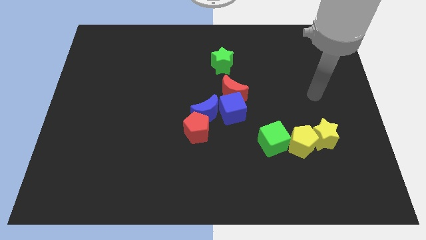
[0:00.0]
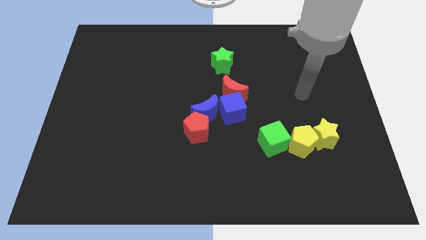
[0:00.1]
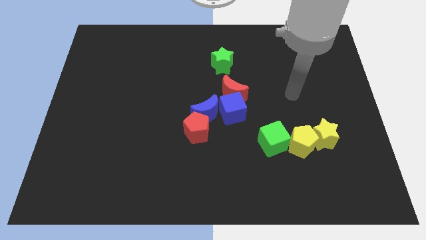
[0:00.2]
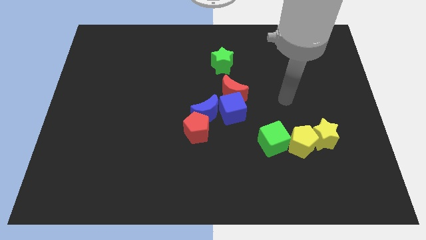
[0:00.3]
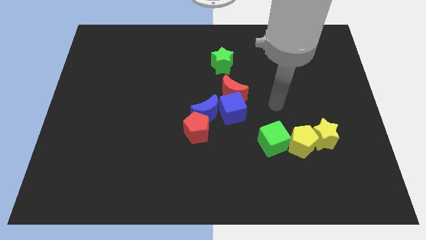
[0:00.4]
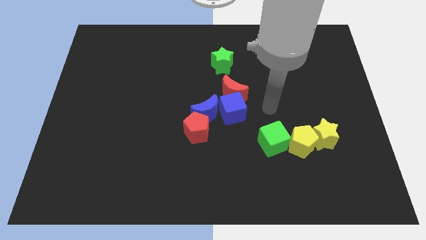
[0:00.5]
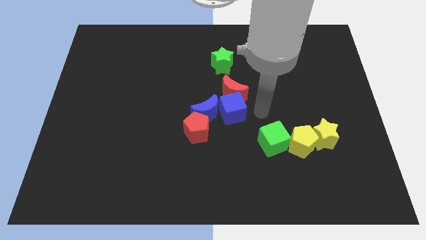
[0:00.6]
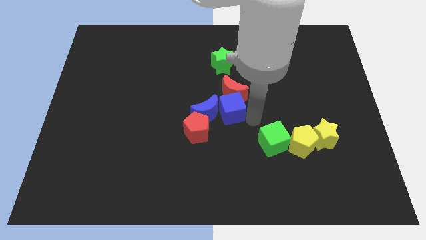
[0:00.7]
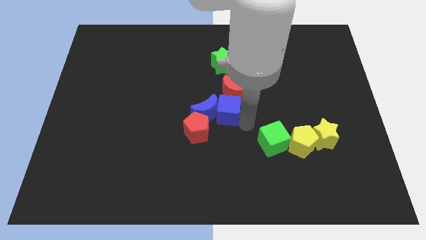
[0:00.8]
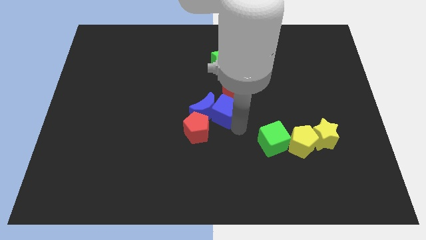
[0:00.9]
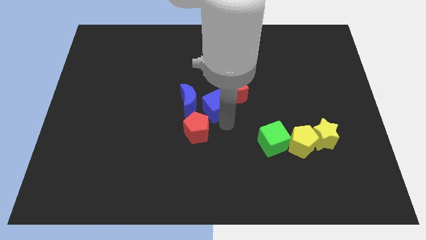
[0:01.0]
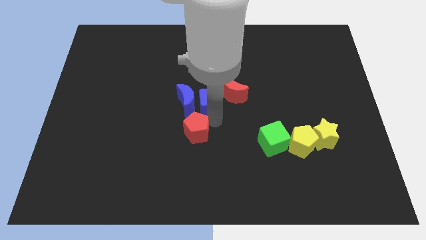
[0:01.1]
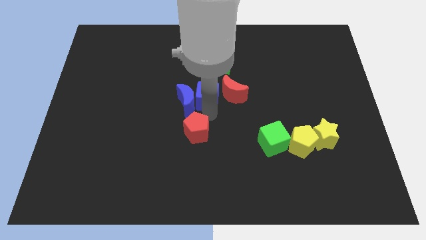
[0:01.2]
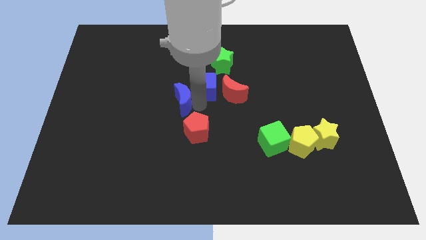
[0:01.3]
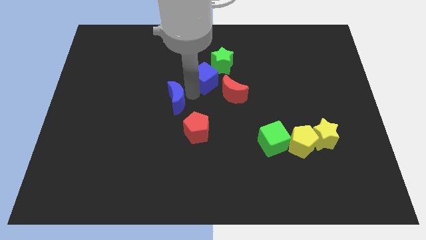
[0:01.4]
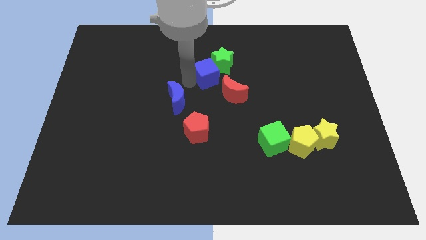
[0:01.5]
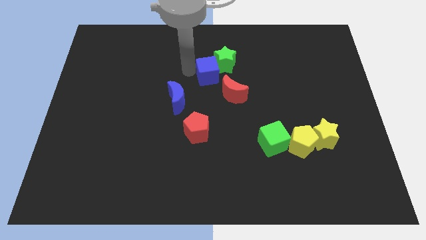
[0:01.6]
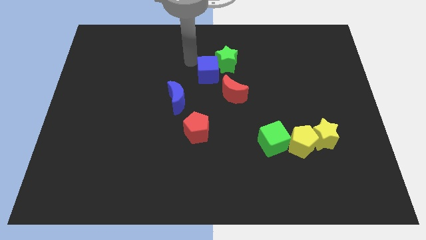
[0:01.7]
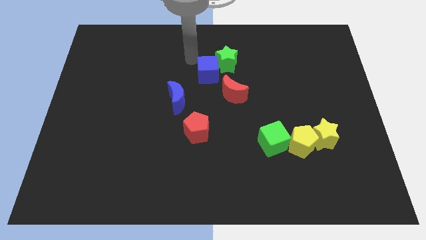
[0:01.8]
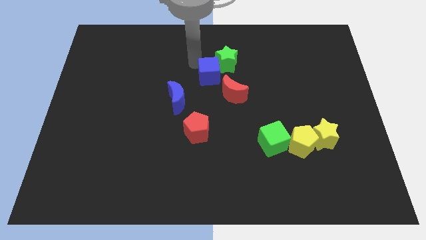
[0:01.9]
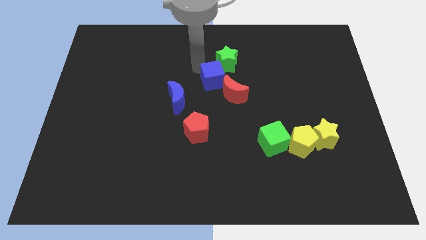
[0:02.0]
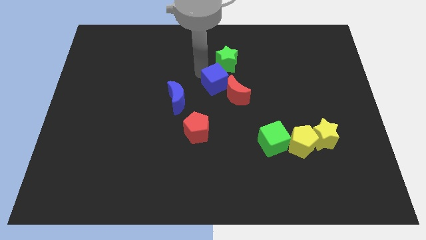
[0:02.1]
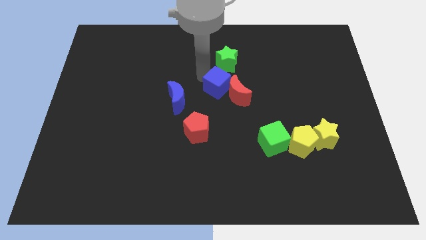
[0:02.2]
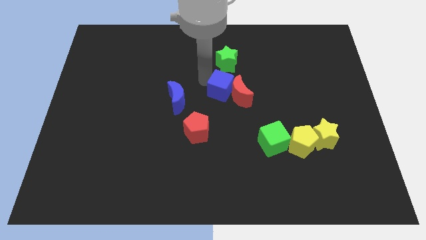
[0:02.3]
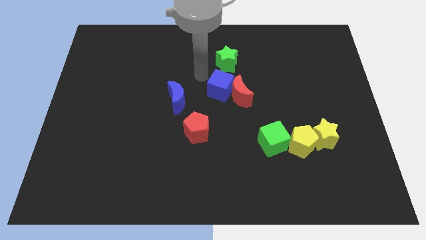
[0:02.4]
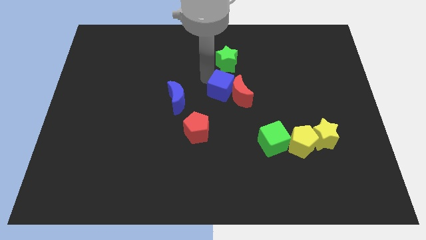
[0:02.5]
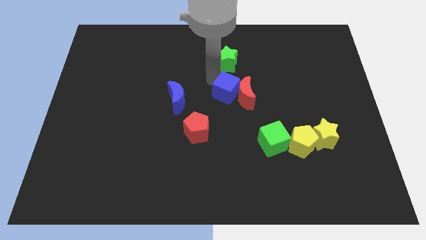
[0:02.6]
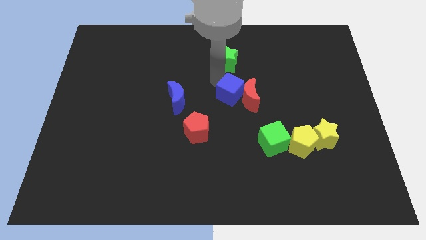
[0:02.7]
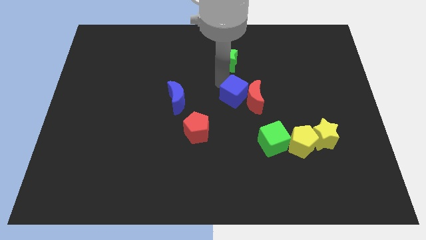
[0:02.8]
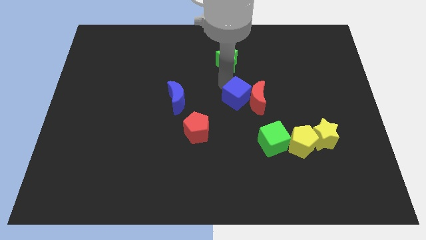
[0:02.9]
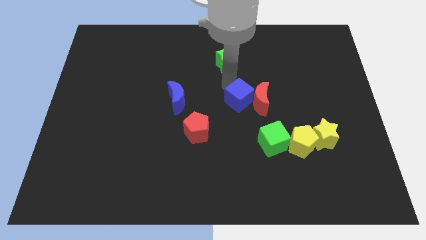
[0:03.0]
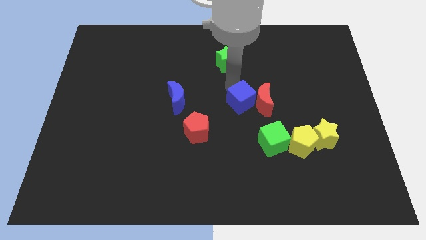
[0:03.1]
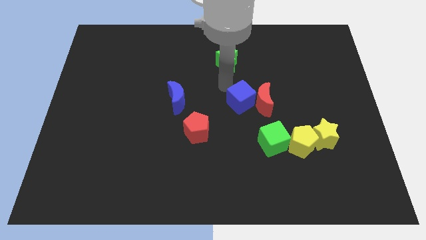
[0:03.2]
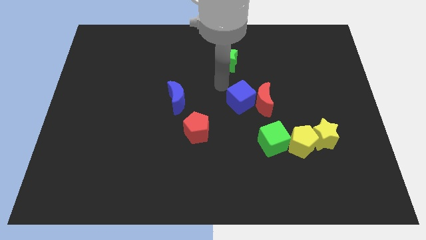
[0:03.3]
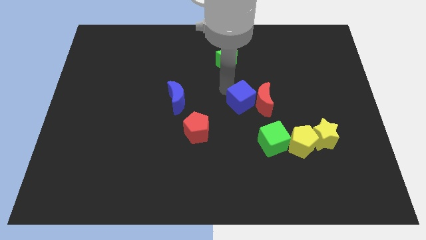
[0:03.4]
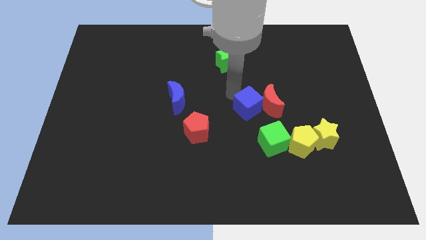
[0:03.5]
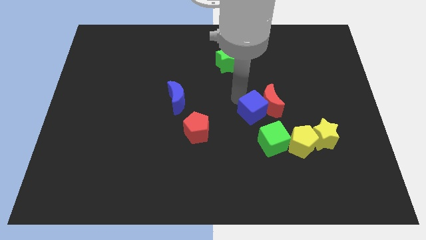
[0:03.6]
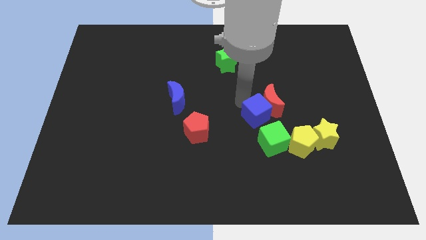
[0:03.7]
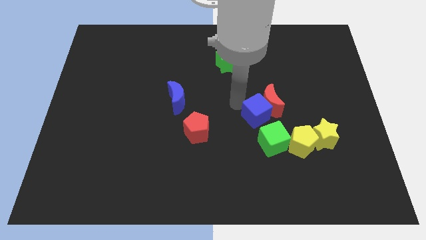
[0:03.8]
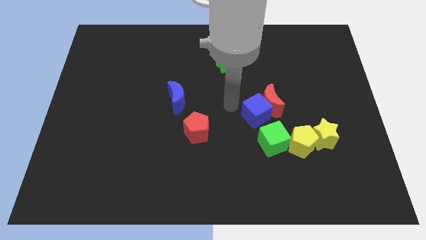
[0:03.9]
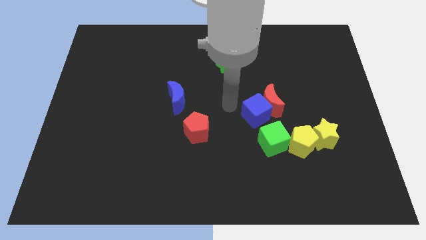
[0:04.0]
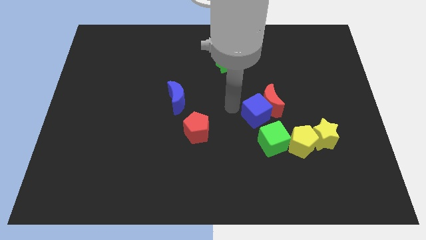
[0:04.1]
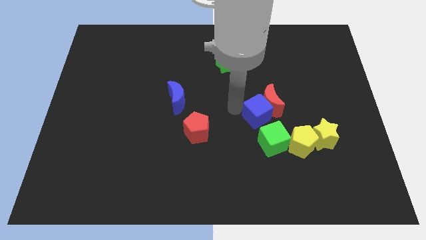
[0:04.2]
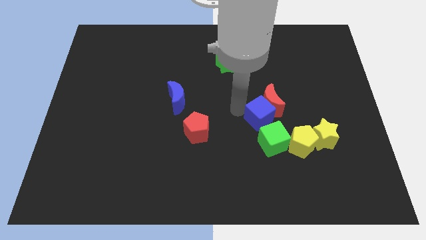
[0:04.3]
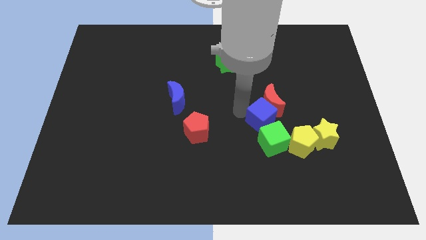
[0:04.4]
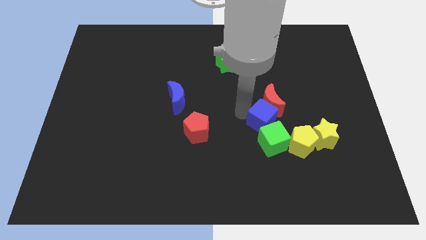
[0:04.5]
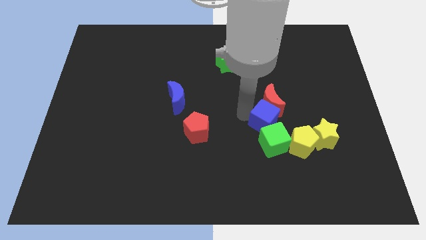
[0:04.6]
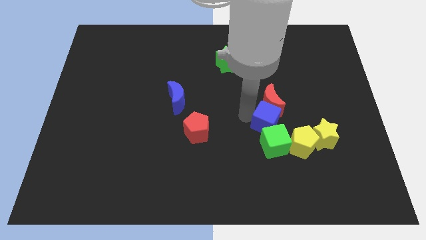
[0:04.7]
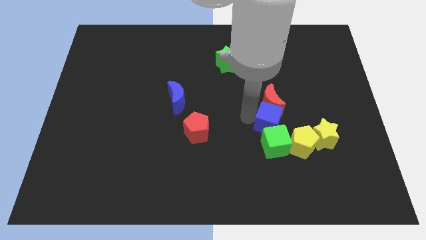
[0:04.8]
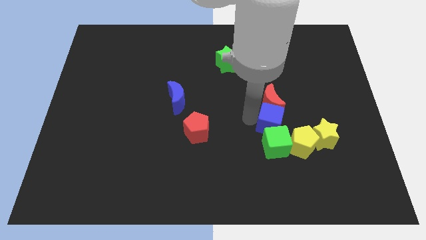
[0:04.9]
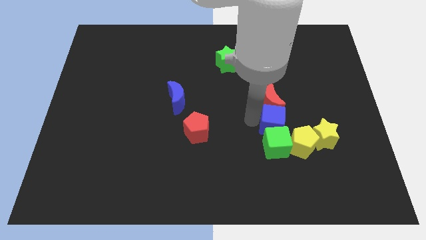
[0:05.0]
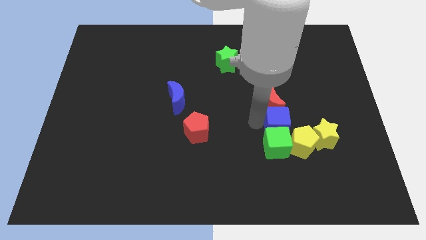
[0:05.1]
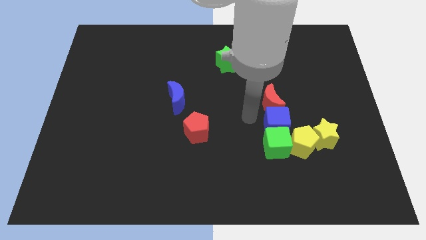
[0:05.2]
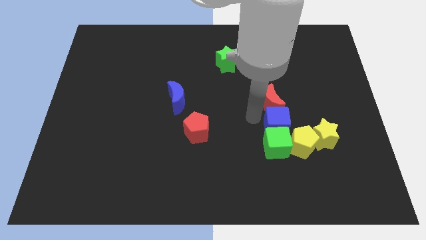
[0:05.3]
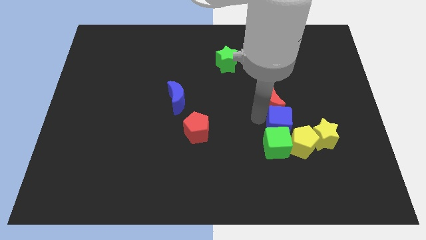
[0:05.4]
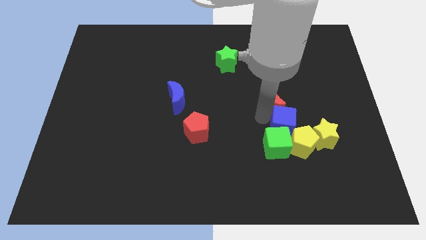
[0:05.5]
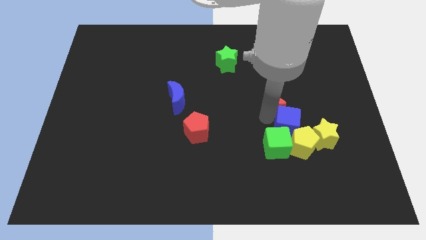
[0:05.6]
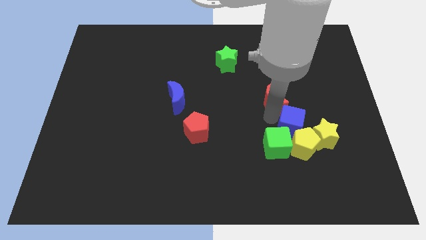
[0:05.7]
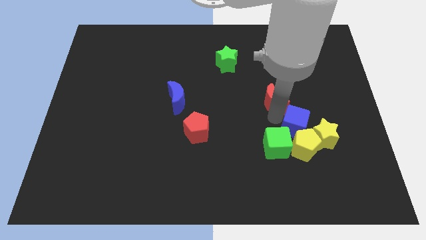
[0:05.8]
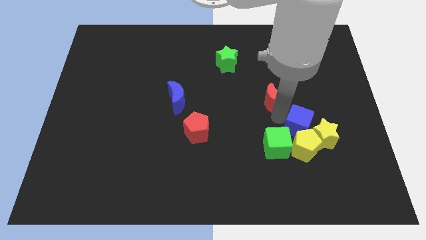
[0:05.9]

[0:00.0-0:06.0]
push the blue cube towards the yellow star

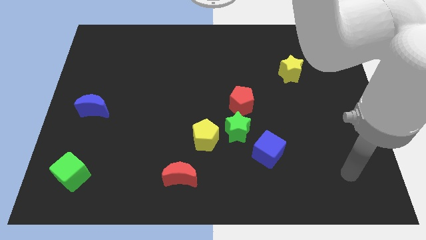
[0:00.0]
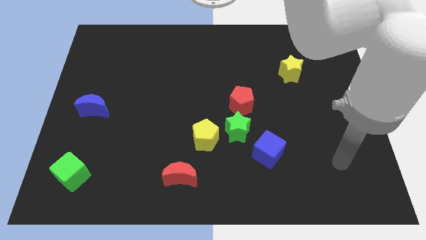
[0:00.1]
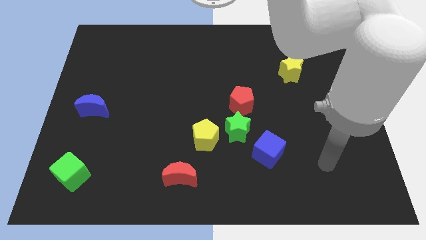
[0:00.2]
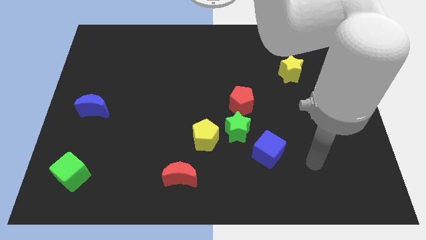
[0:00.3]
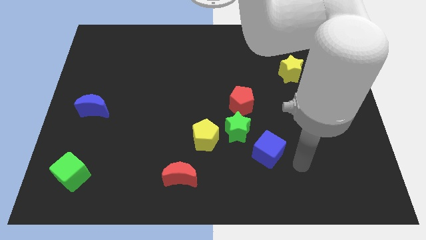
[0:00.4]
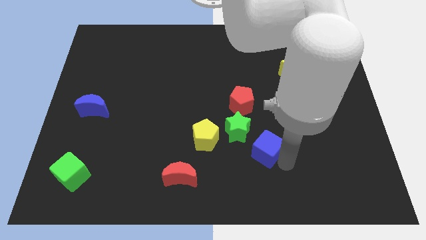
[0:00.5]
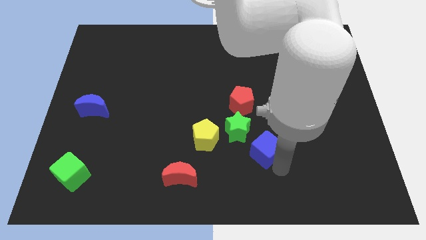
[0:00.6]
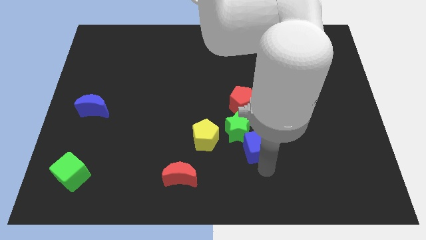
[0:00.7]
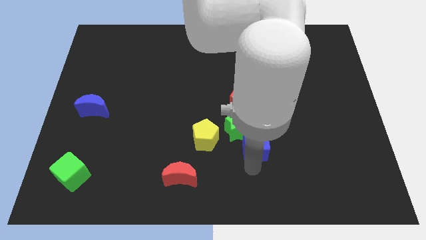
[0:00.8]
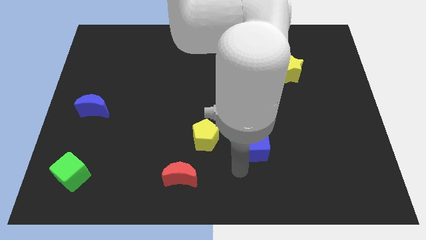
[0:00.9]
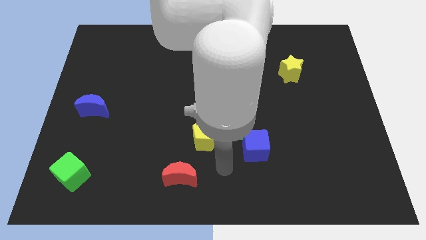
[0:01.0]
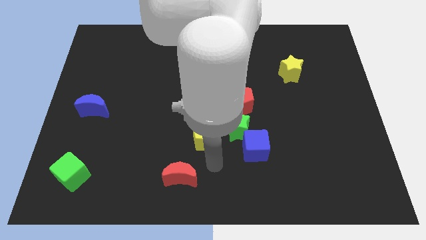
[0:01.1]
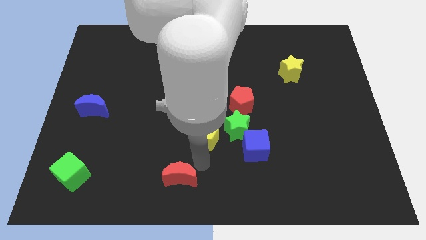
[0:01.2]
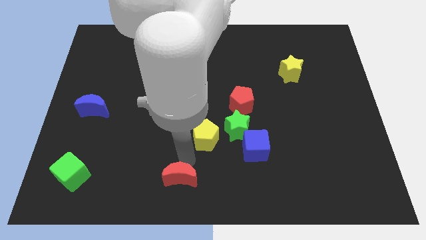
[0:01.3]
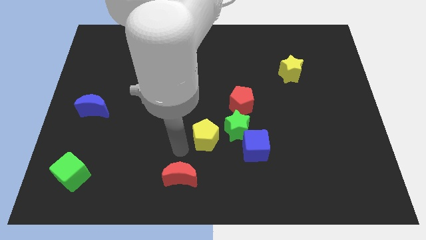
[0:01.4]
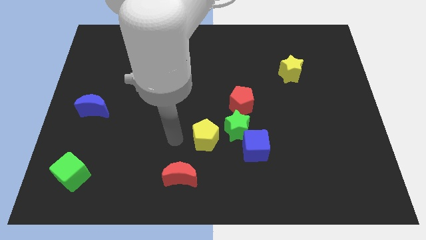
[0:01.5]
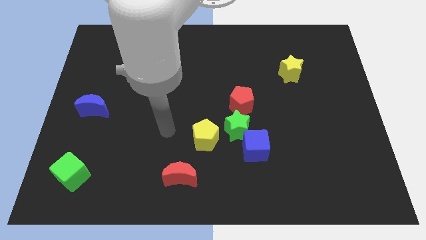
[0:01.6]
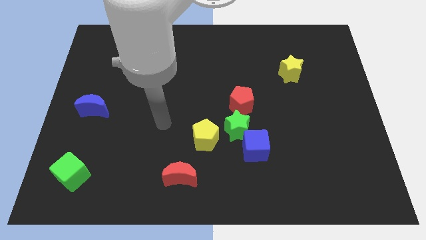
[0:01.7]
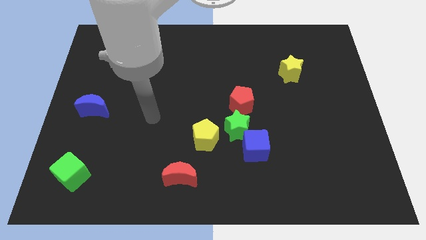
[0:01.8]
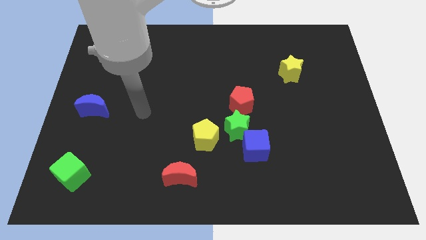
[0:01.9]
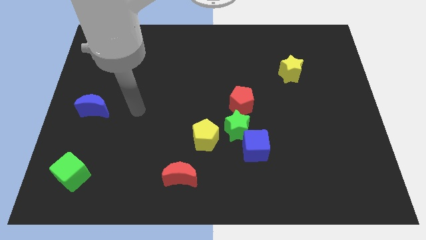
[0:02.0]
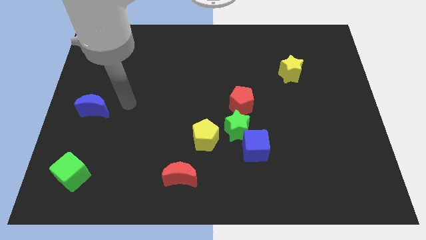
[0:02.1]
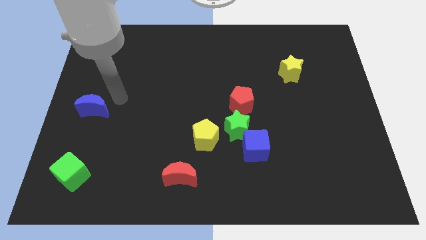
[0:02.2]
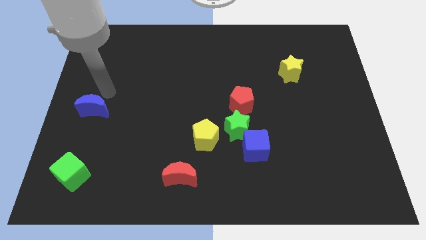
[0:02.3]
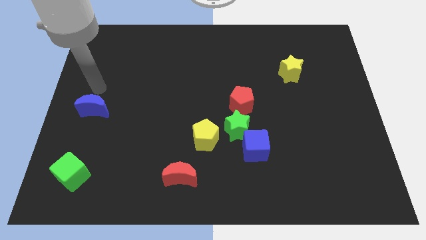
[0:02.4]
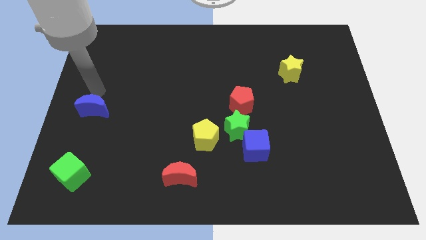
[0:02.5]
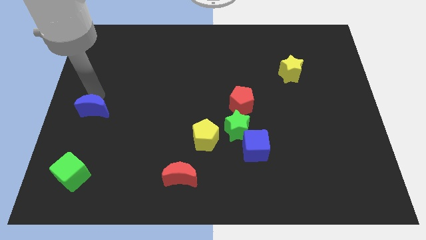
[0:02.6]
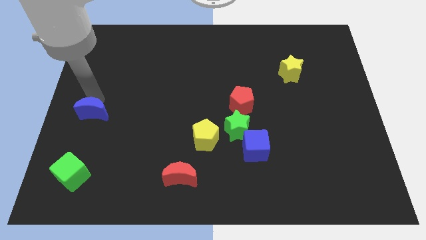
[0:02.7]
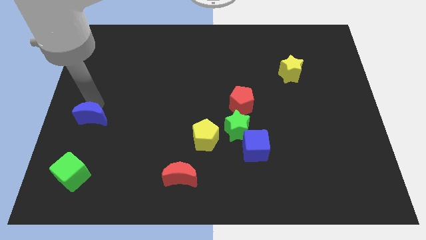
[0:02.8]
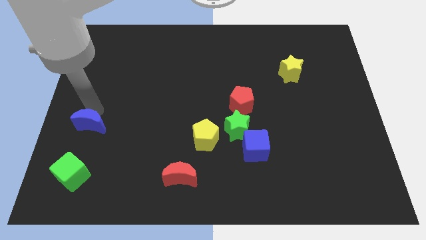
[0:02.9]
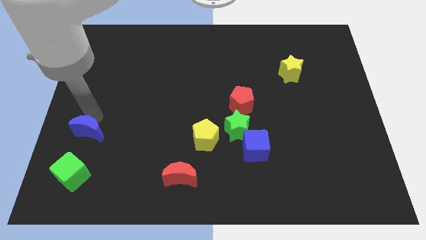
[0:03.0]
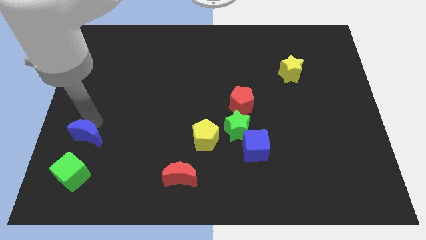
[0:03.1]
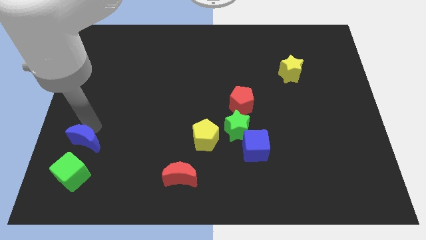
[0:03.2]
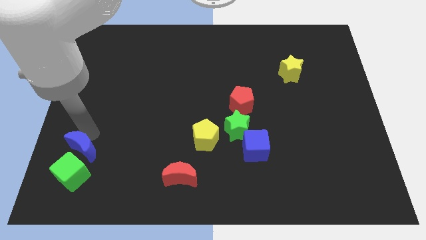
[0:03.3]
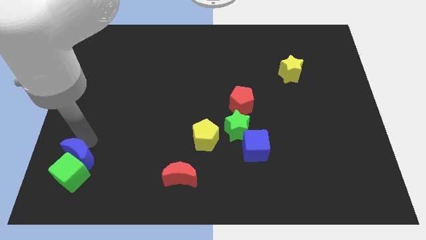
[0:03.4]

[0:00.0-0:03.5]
put the blue moon next to the green cube
